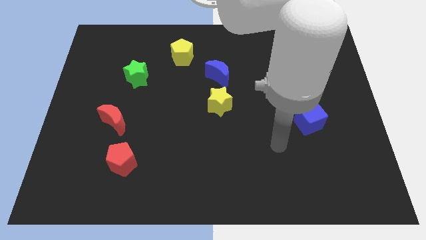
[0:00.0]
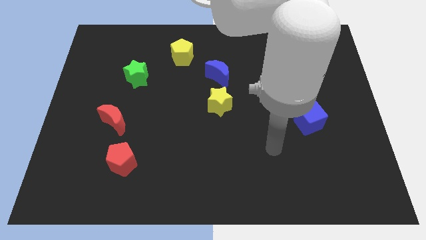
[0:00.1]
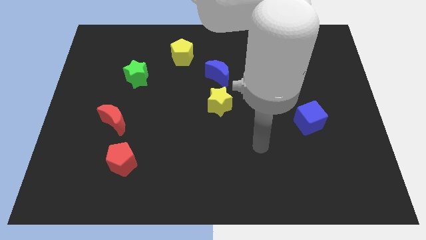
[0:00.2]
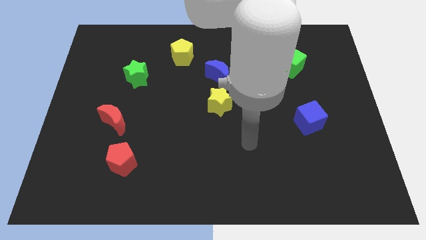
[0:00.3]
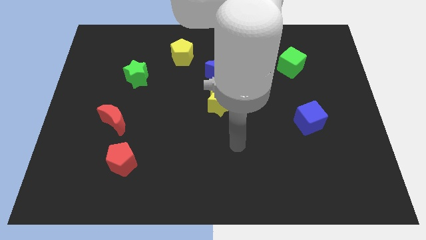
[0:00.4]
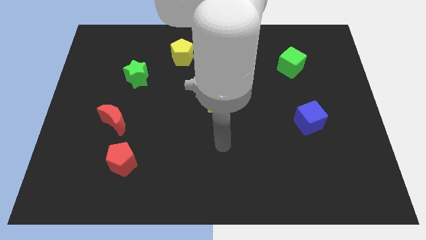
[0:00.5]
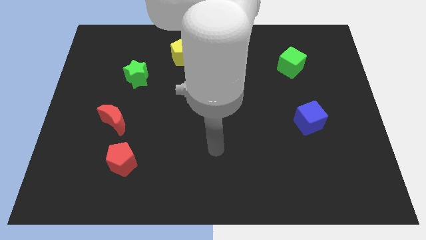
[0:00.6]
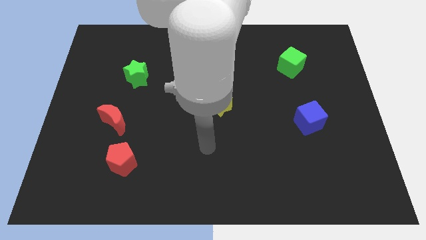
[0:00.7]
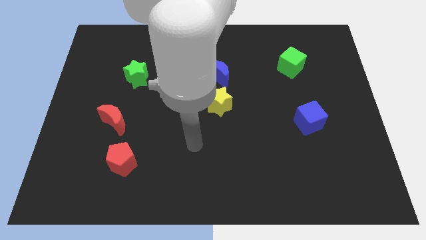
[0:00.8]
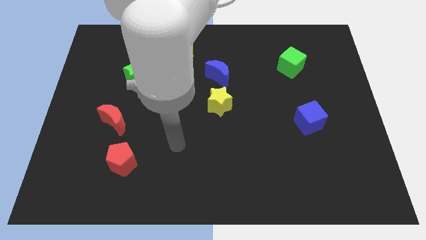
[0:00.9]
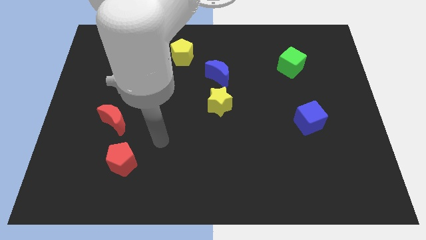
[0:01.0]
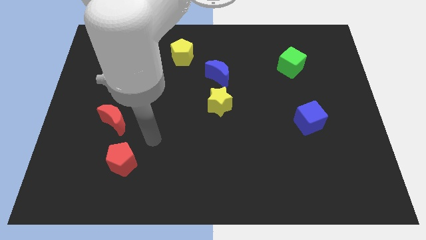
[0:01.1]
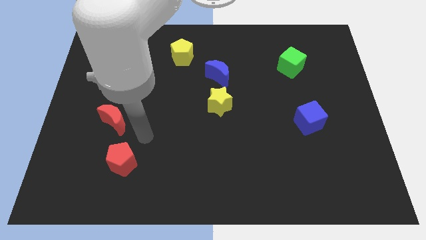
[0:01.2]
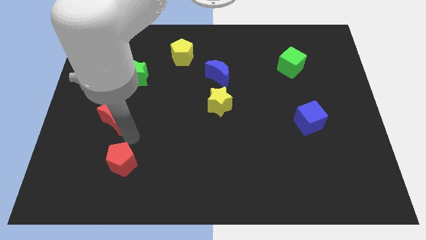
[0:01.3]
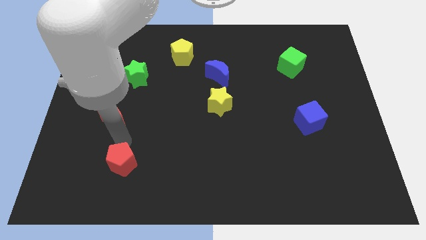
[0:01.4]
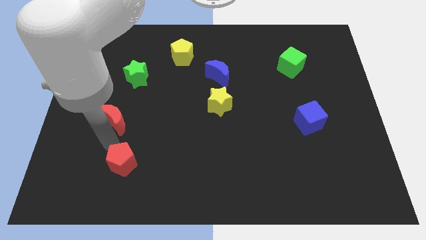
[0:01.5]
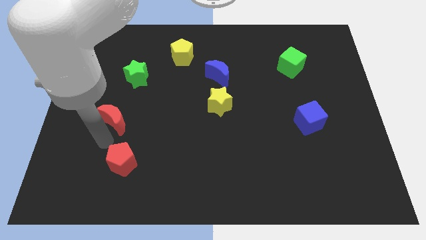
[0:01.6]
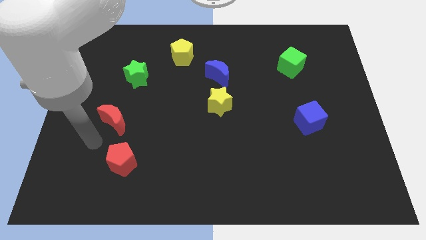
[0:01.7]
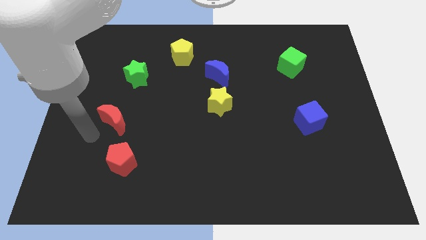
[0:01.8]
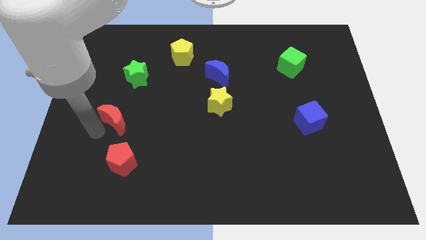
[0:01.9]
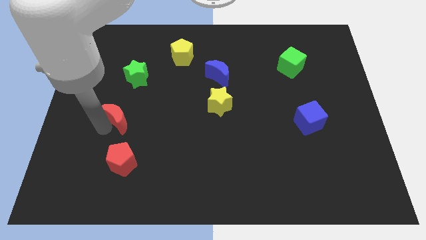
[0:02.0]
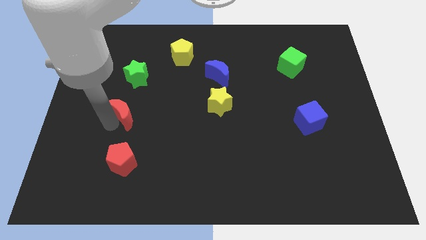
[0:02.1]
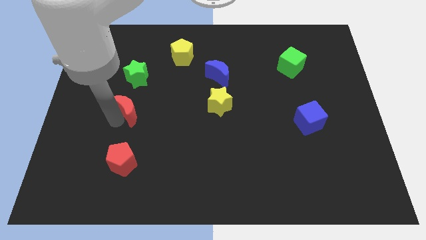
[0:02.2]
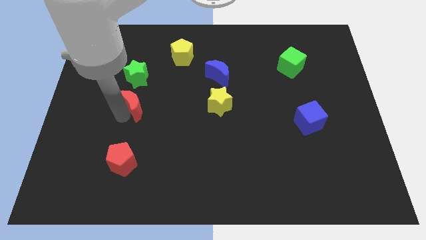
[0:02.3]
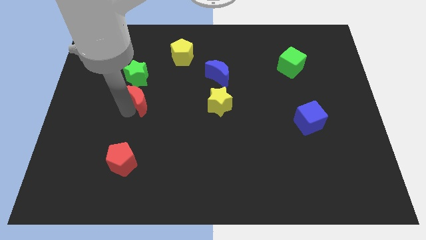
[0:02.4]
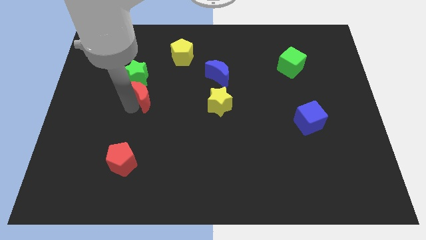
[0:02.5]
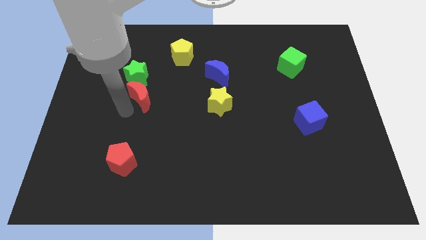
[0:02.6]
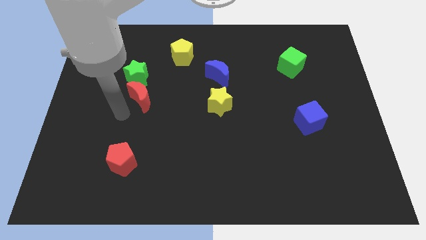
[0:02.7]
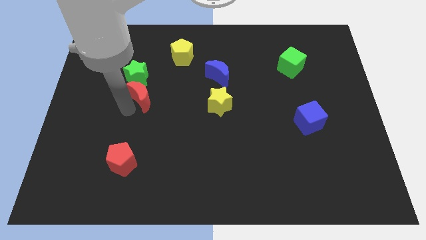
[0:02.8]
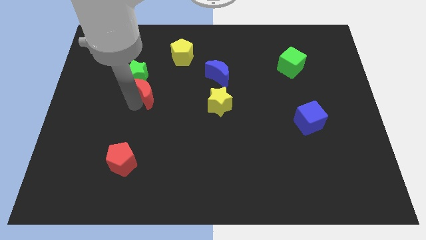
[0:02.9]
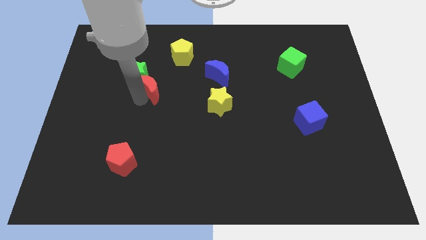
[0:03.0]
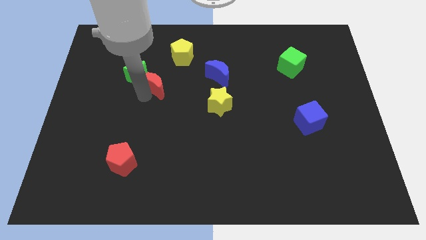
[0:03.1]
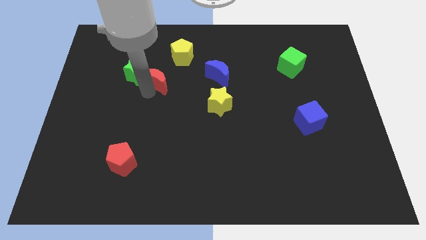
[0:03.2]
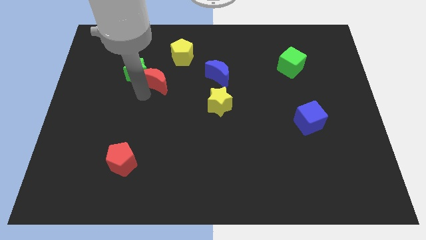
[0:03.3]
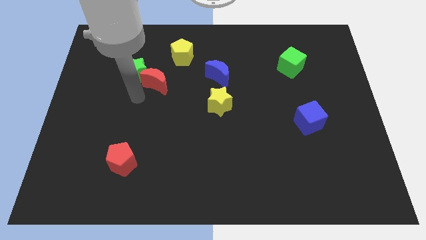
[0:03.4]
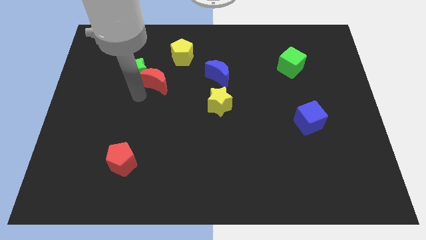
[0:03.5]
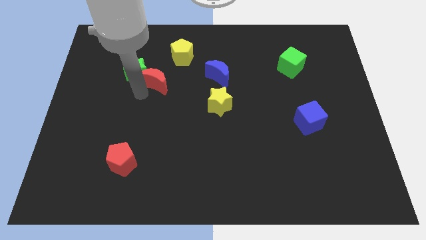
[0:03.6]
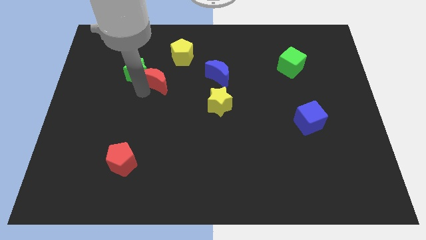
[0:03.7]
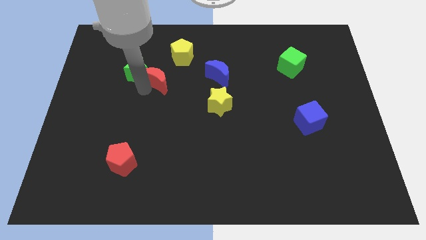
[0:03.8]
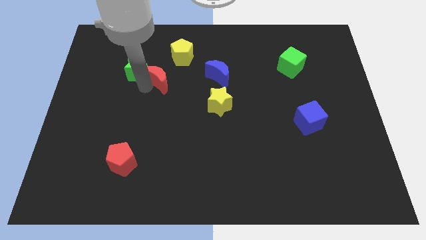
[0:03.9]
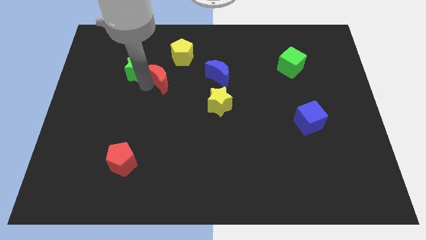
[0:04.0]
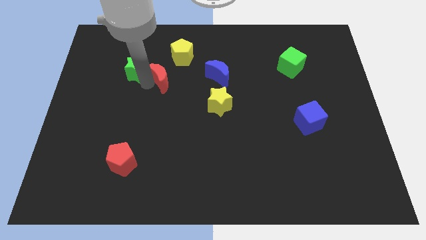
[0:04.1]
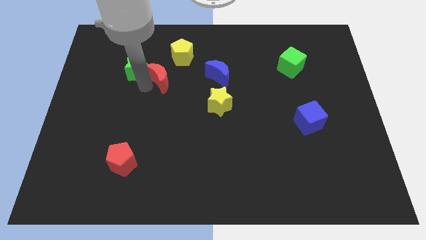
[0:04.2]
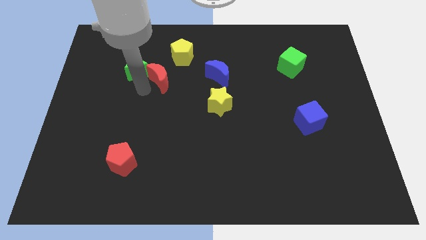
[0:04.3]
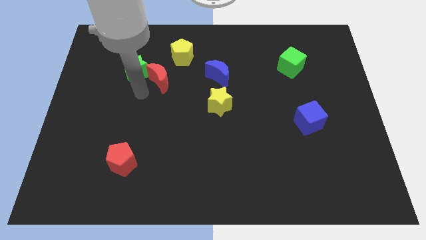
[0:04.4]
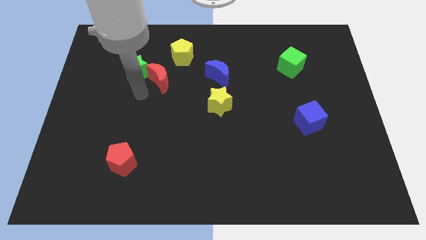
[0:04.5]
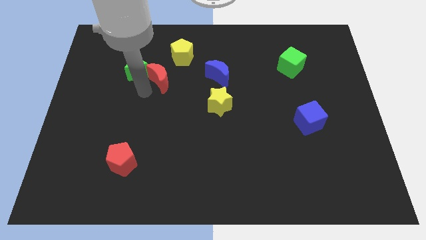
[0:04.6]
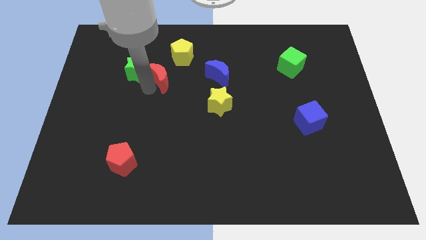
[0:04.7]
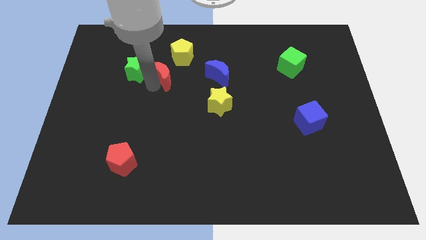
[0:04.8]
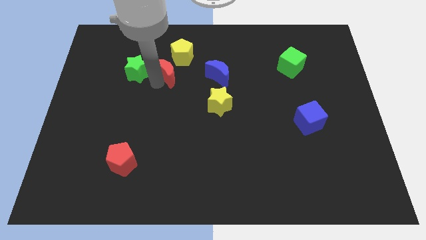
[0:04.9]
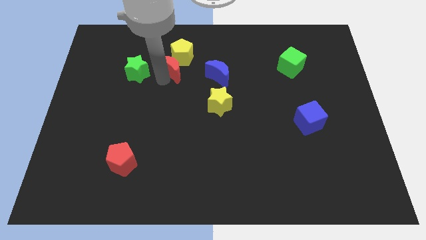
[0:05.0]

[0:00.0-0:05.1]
push the red moon to the yellow pentagon

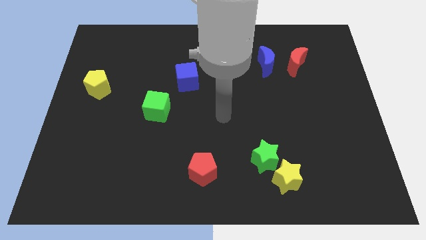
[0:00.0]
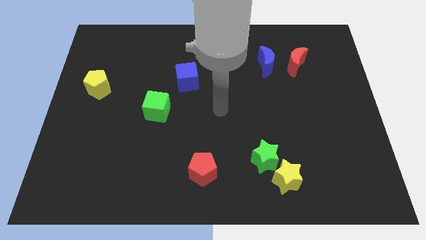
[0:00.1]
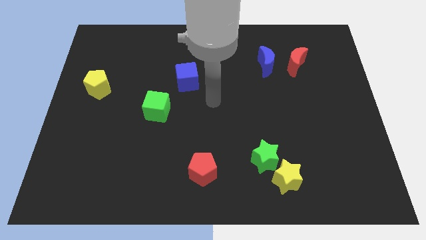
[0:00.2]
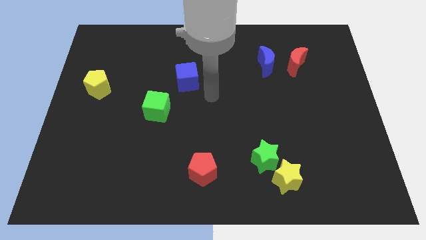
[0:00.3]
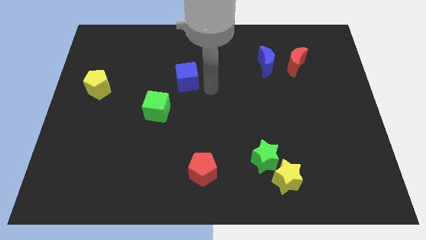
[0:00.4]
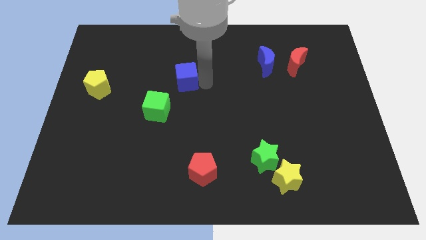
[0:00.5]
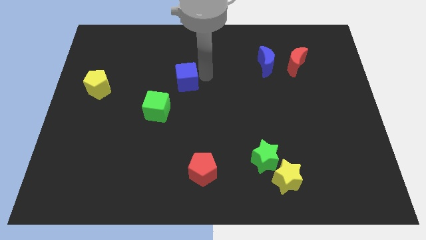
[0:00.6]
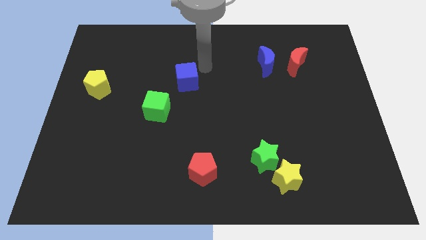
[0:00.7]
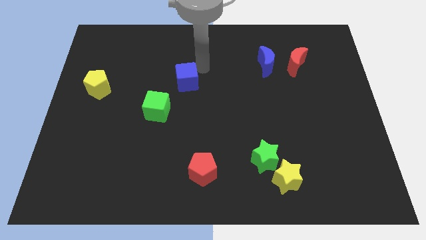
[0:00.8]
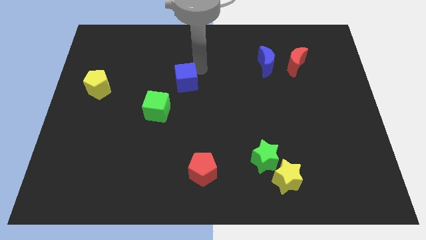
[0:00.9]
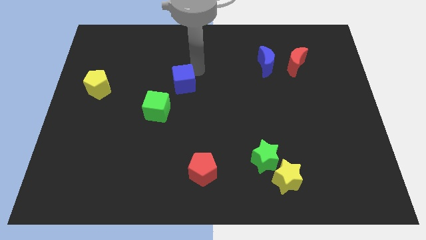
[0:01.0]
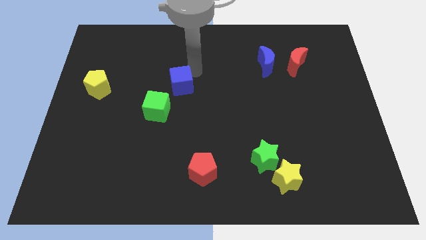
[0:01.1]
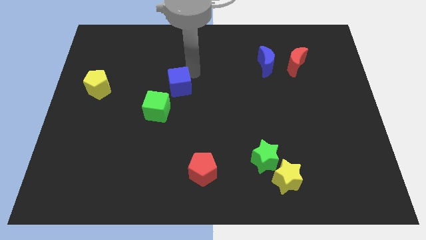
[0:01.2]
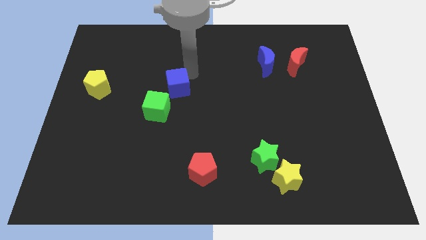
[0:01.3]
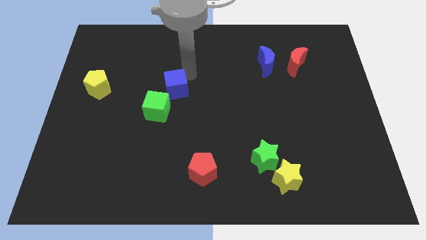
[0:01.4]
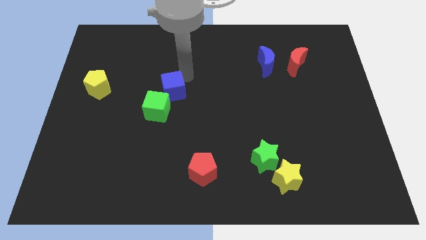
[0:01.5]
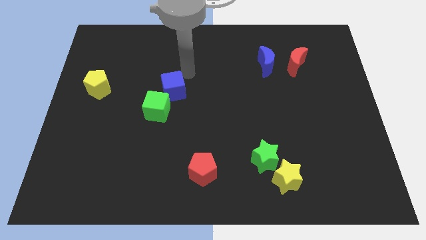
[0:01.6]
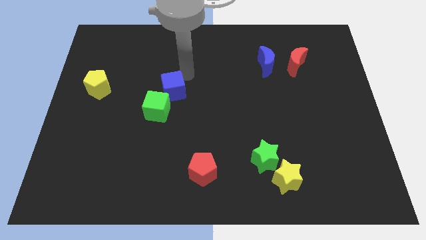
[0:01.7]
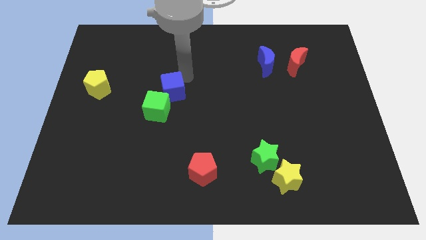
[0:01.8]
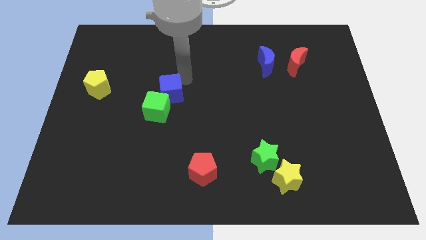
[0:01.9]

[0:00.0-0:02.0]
slide the blue cube close to the green cube

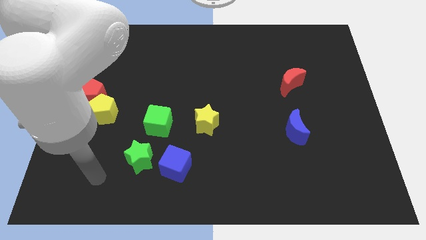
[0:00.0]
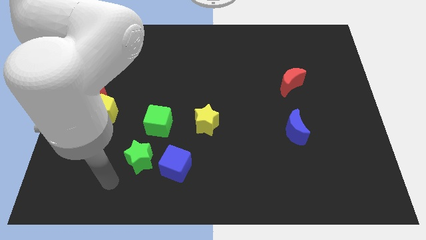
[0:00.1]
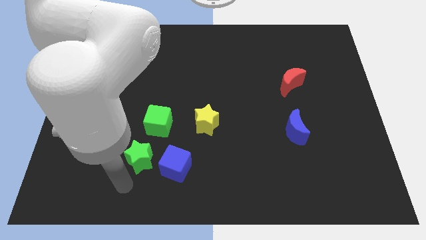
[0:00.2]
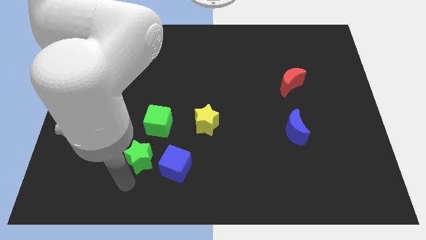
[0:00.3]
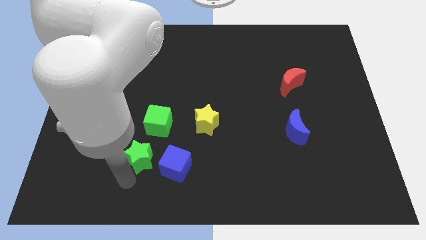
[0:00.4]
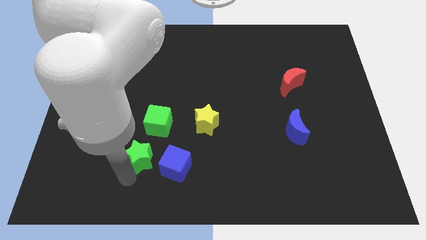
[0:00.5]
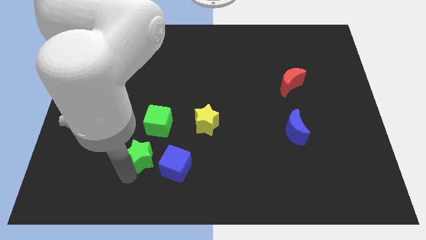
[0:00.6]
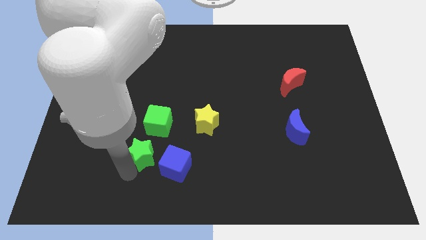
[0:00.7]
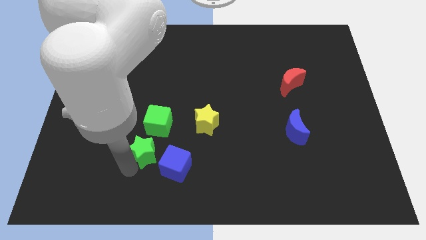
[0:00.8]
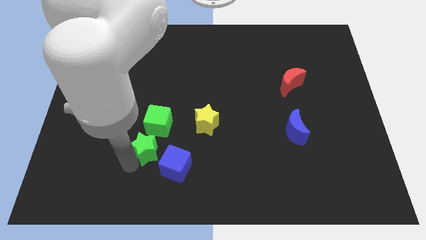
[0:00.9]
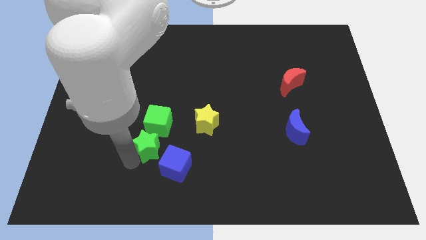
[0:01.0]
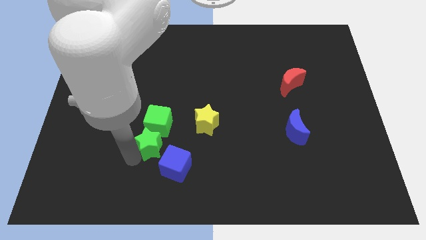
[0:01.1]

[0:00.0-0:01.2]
push the green star to the green cube
